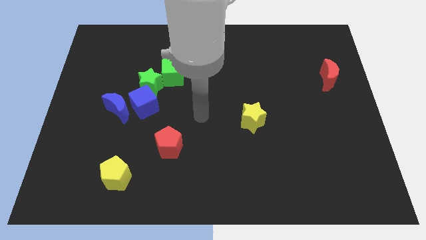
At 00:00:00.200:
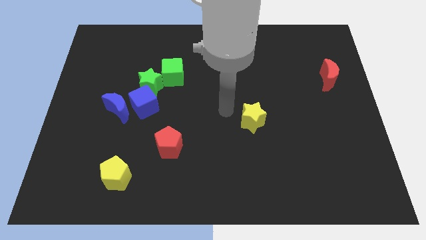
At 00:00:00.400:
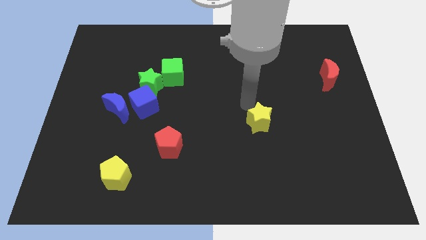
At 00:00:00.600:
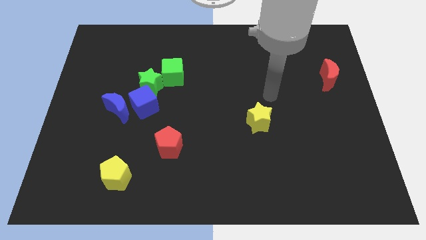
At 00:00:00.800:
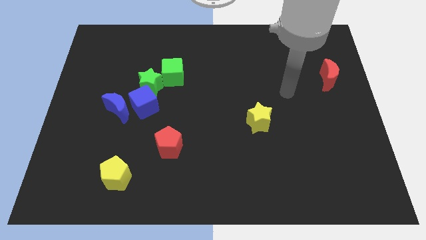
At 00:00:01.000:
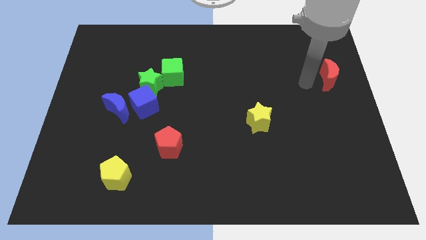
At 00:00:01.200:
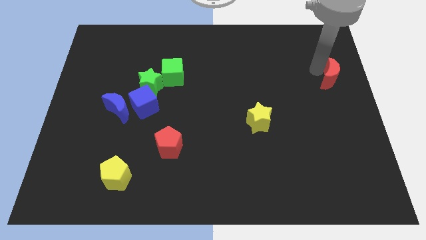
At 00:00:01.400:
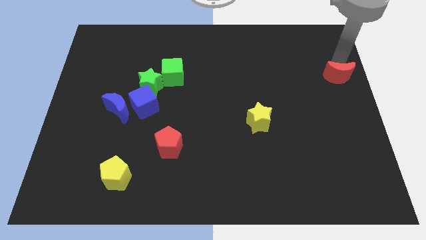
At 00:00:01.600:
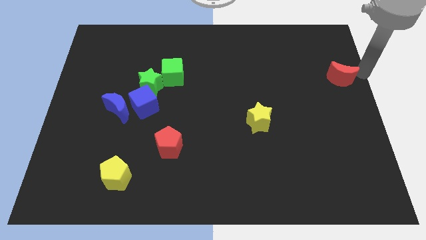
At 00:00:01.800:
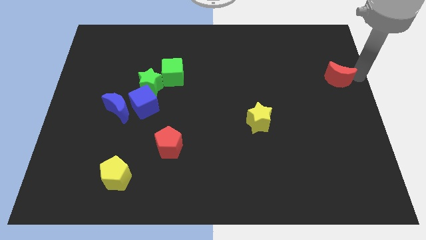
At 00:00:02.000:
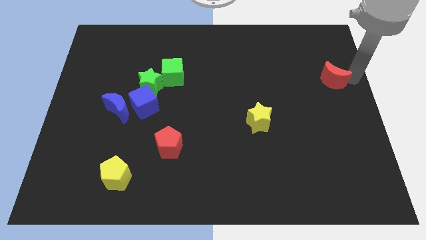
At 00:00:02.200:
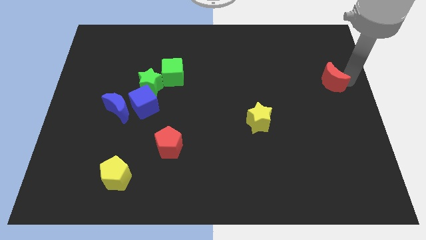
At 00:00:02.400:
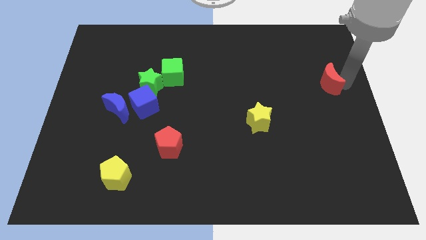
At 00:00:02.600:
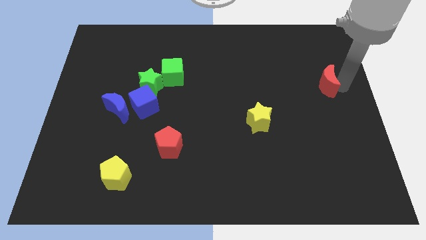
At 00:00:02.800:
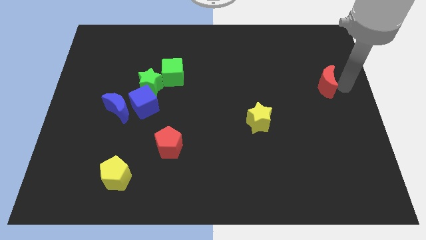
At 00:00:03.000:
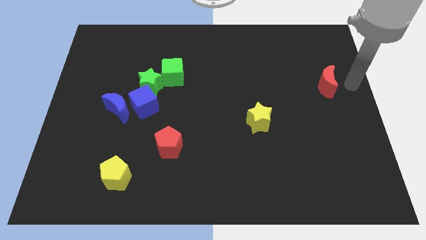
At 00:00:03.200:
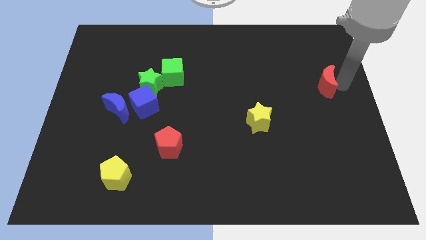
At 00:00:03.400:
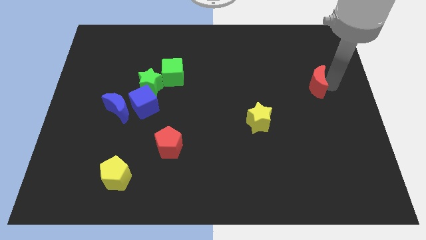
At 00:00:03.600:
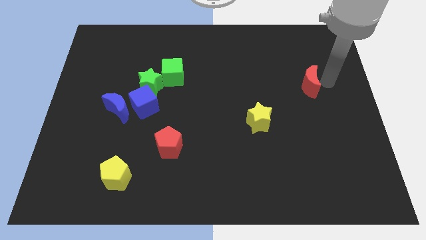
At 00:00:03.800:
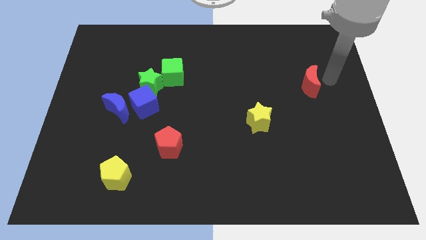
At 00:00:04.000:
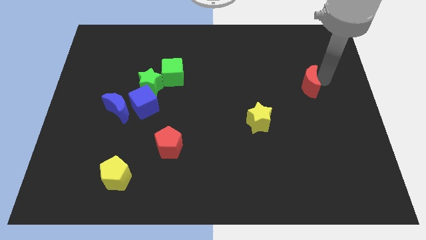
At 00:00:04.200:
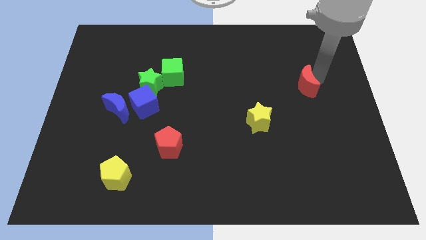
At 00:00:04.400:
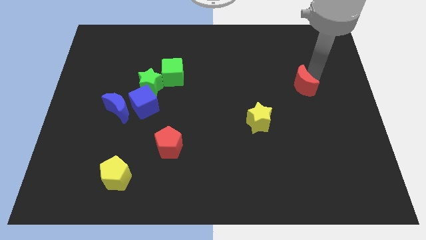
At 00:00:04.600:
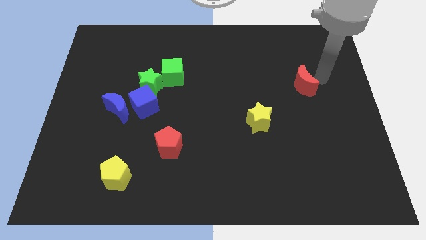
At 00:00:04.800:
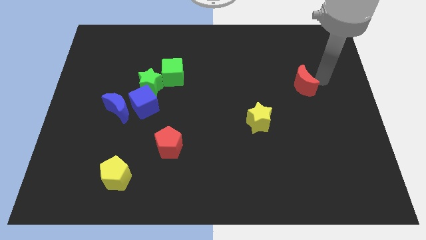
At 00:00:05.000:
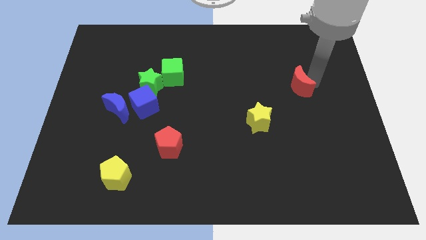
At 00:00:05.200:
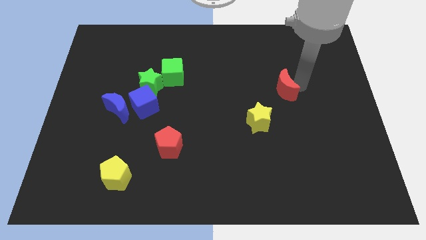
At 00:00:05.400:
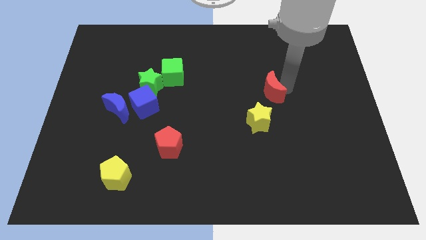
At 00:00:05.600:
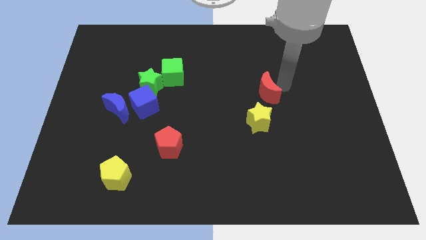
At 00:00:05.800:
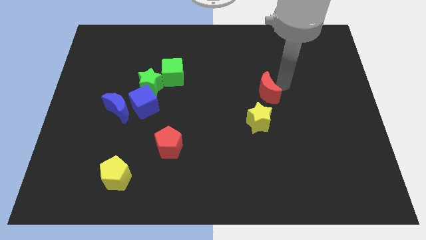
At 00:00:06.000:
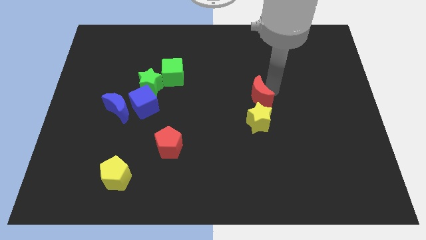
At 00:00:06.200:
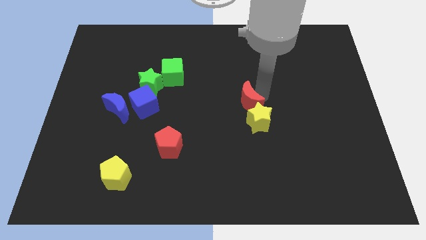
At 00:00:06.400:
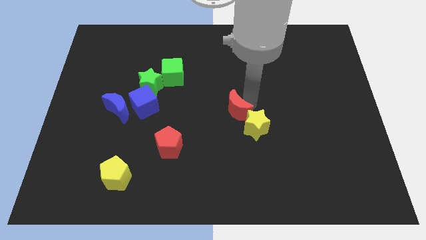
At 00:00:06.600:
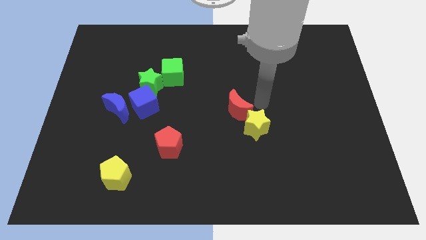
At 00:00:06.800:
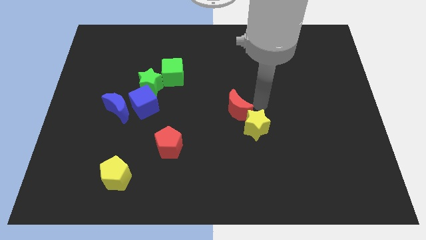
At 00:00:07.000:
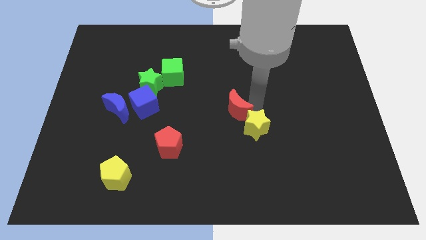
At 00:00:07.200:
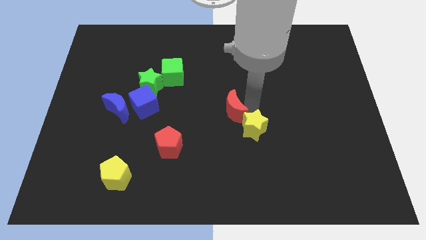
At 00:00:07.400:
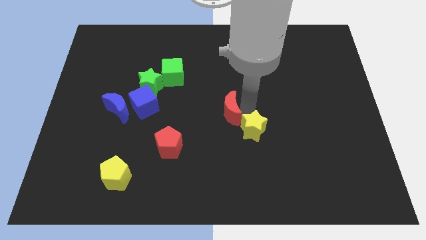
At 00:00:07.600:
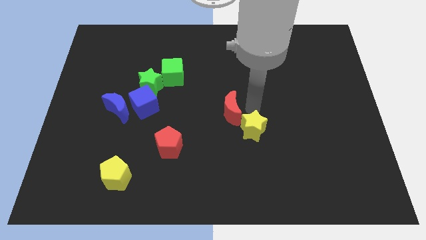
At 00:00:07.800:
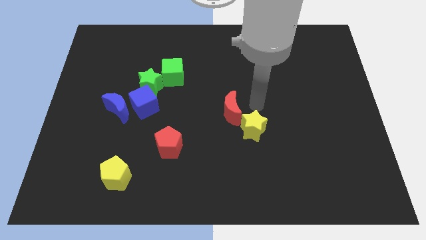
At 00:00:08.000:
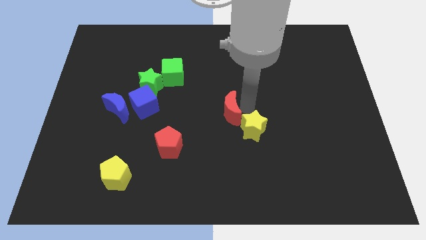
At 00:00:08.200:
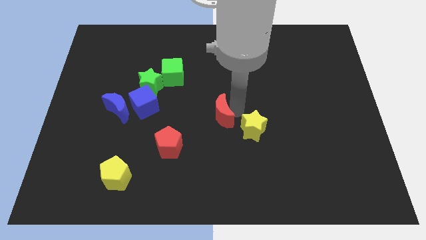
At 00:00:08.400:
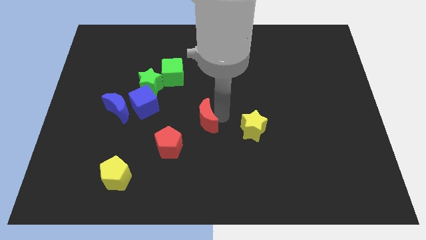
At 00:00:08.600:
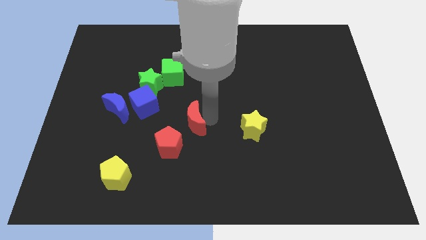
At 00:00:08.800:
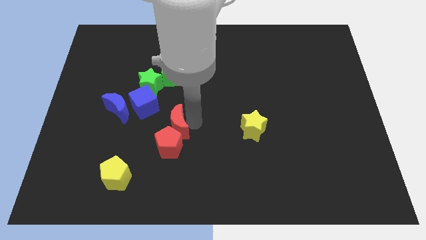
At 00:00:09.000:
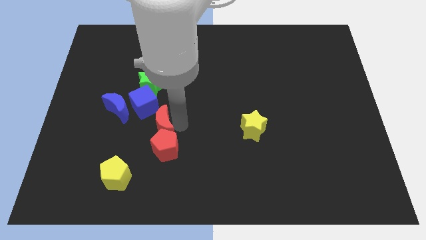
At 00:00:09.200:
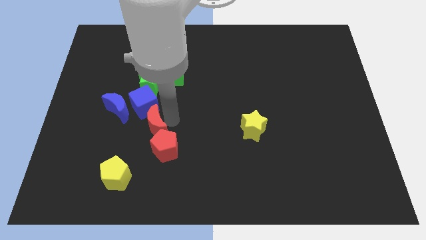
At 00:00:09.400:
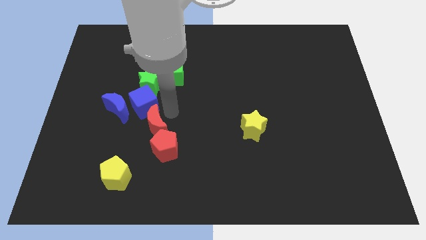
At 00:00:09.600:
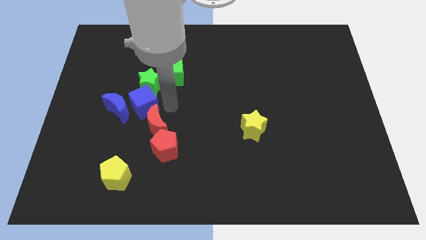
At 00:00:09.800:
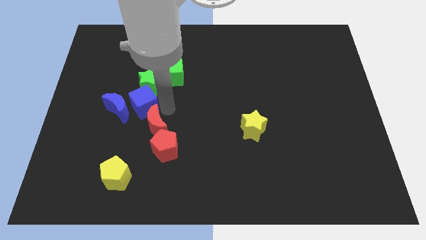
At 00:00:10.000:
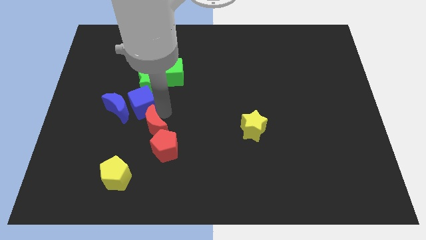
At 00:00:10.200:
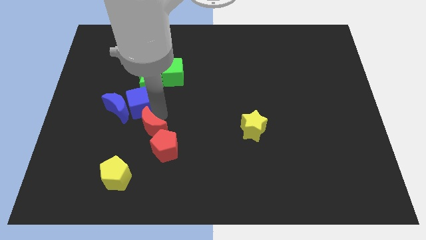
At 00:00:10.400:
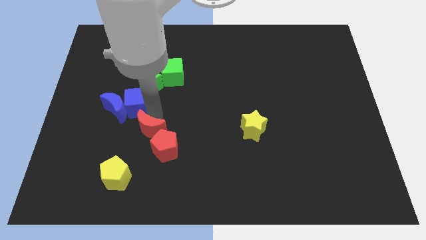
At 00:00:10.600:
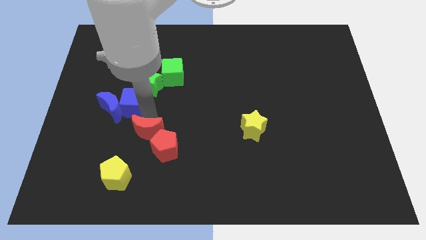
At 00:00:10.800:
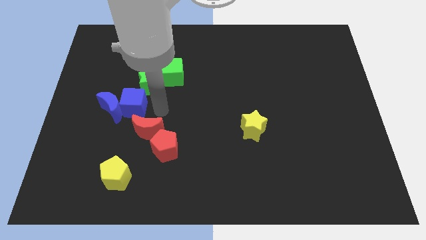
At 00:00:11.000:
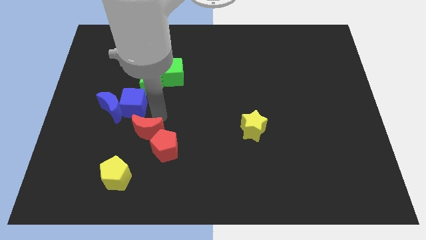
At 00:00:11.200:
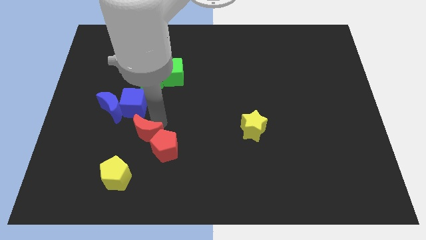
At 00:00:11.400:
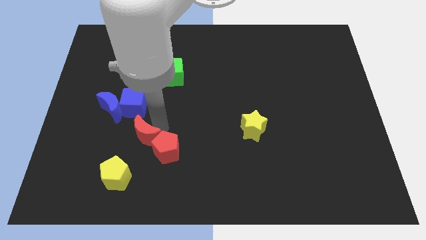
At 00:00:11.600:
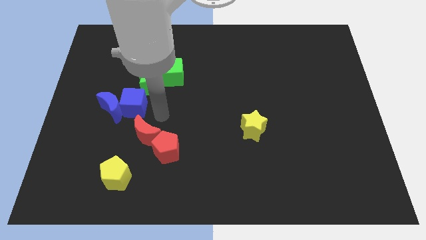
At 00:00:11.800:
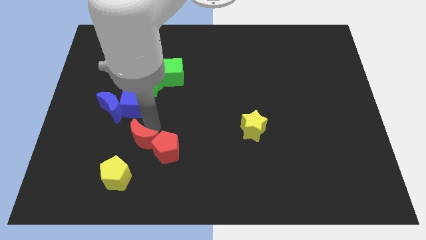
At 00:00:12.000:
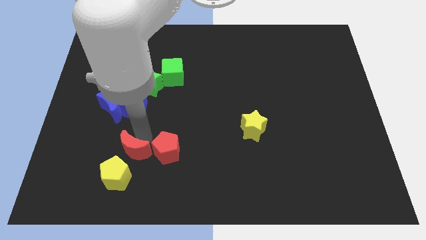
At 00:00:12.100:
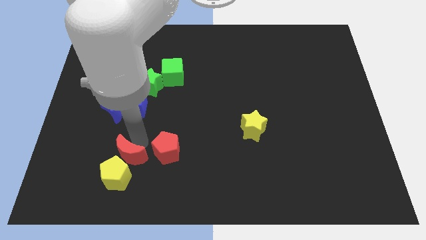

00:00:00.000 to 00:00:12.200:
push the red moon next to the yellow pentagon
